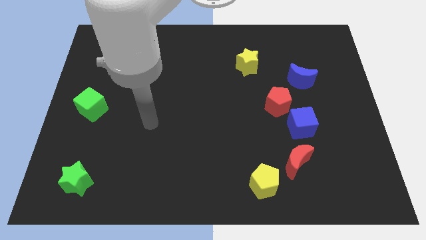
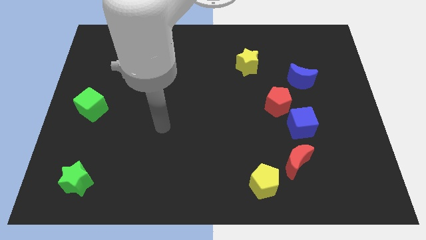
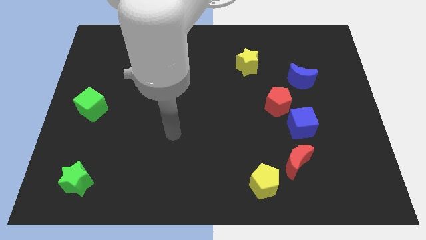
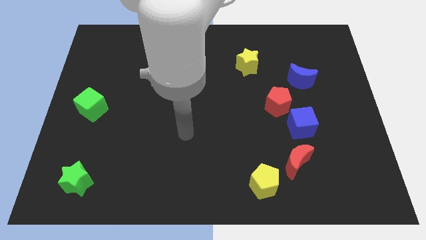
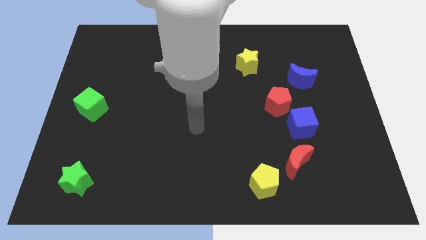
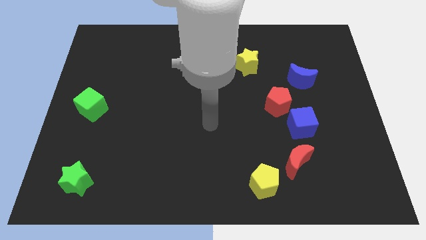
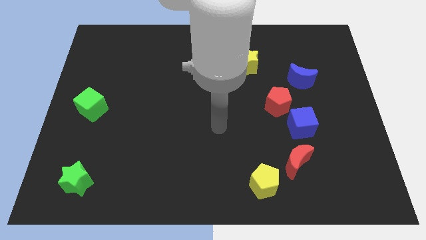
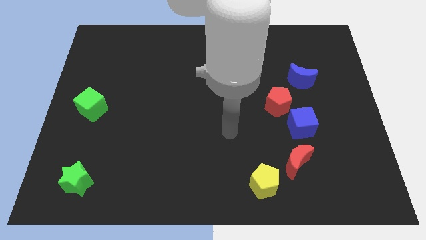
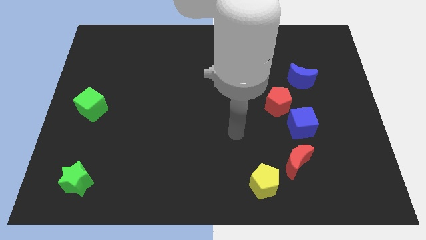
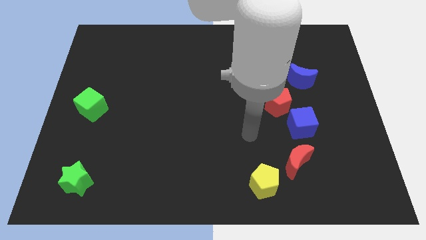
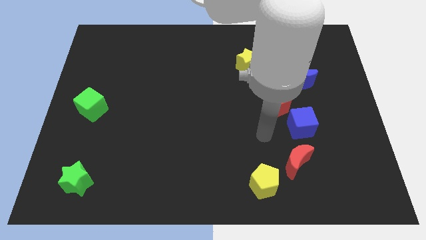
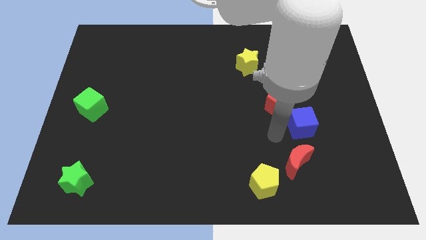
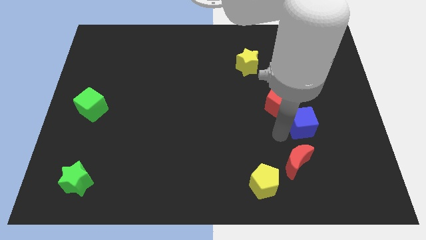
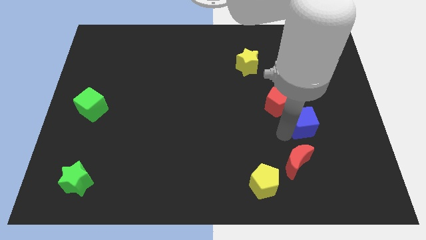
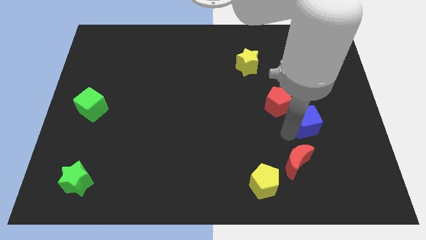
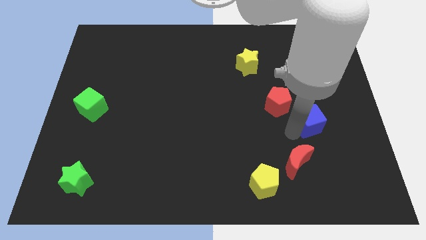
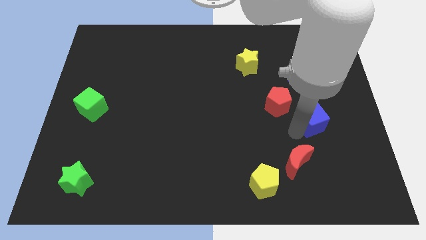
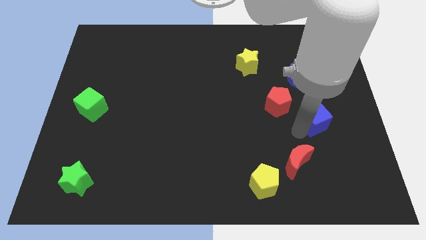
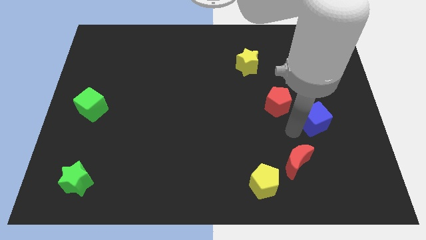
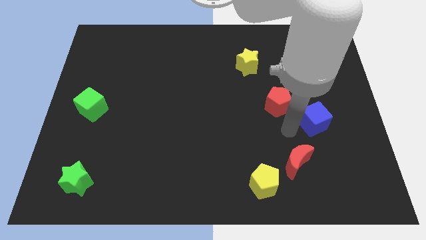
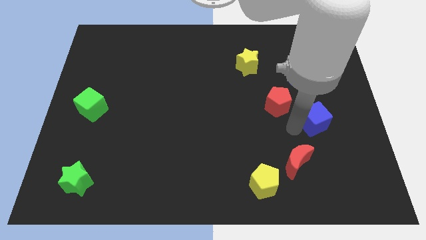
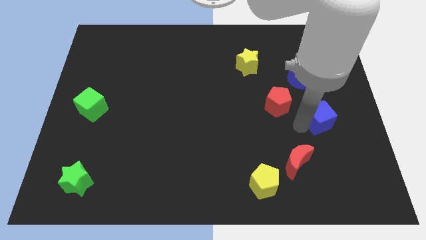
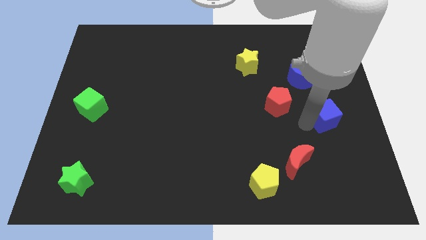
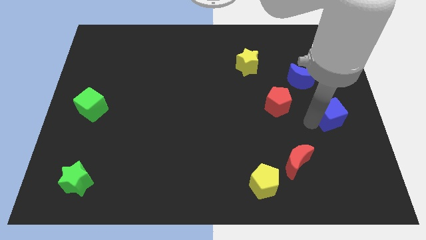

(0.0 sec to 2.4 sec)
move the blue cube away from the red pentagon and red moon

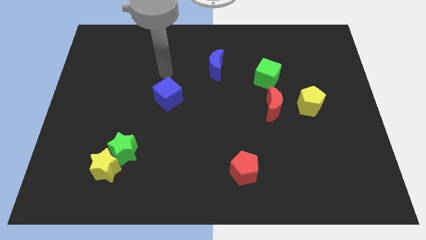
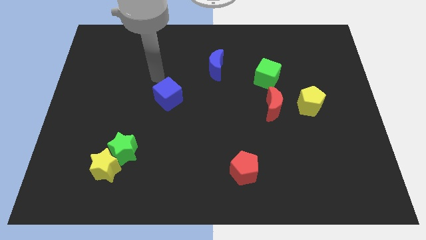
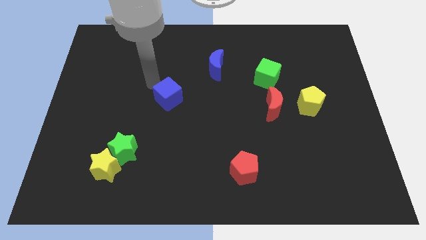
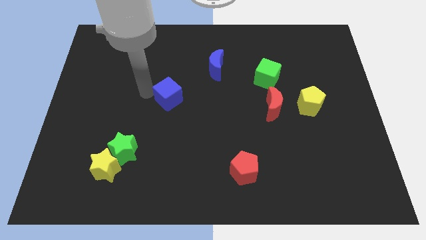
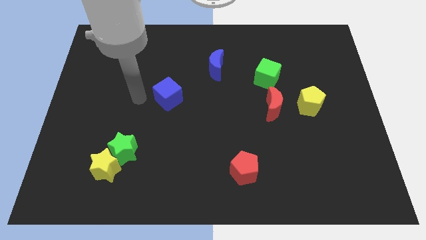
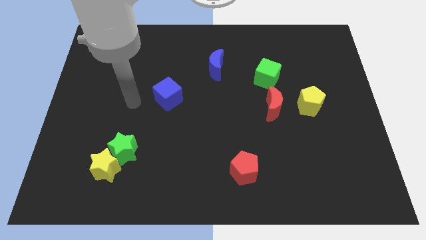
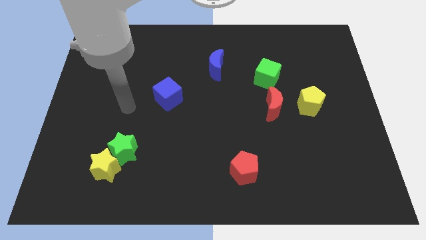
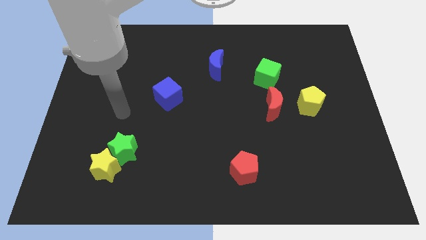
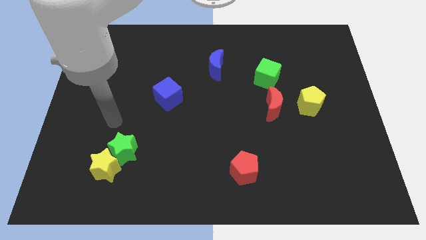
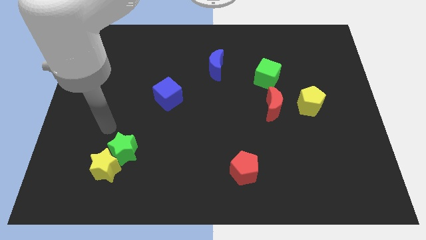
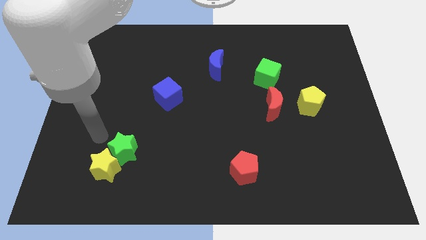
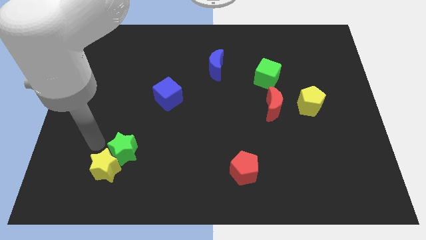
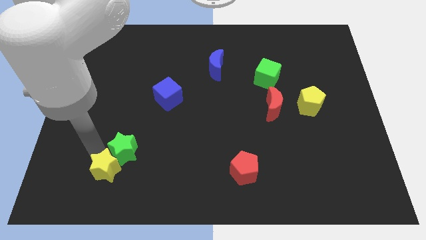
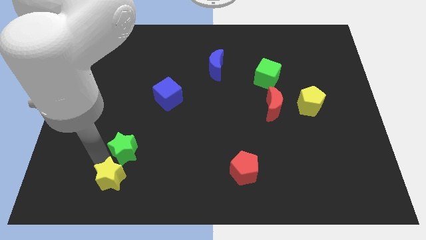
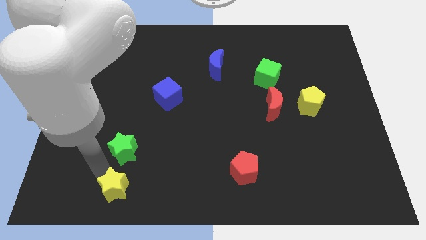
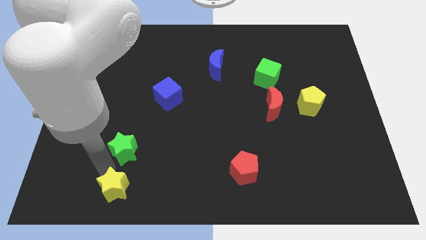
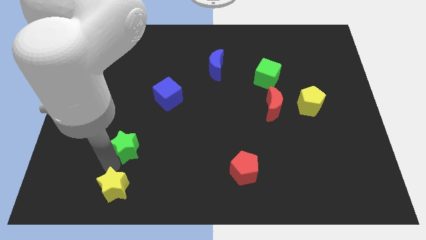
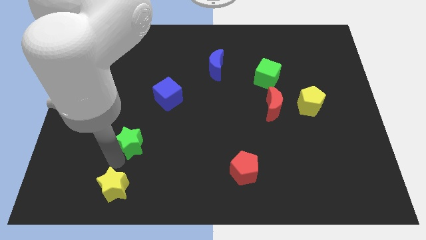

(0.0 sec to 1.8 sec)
move the green star away from the yellow star

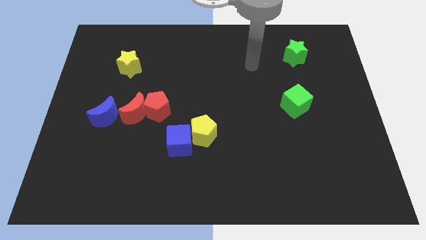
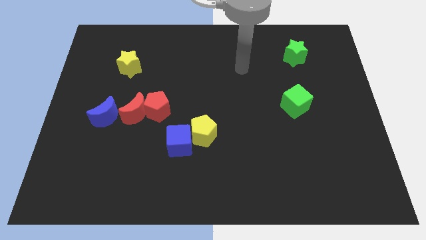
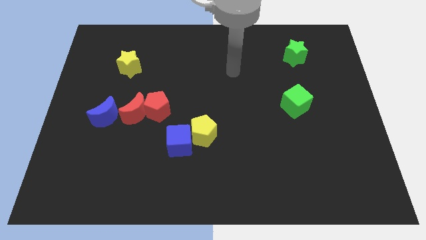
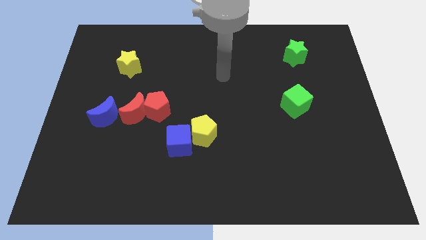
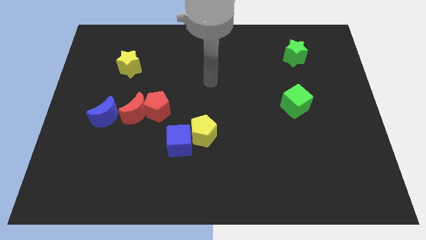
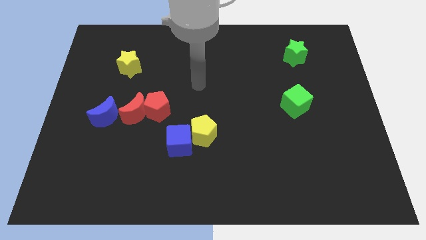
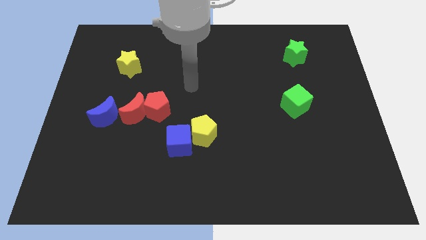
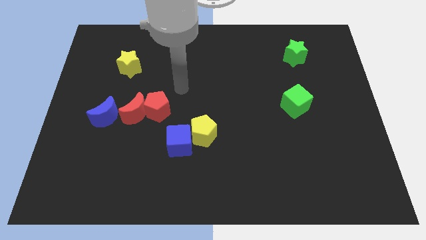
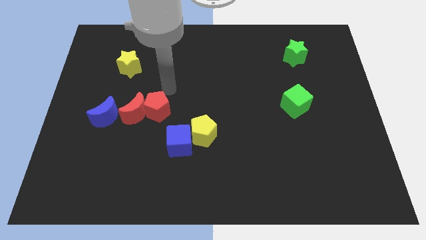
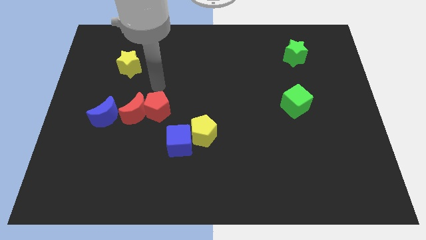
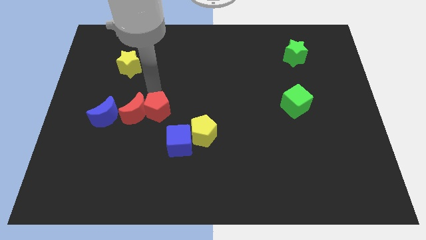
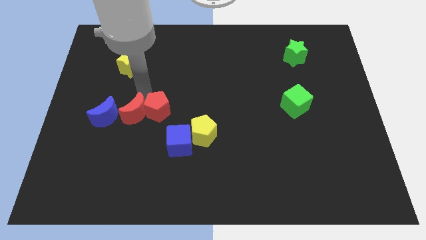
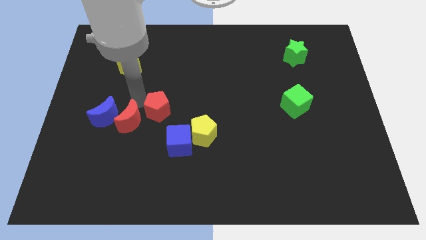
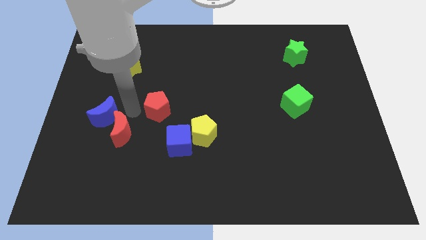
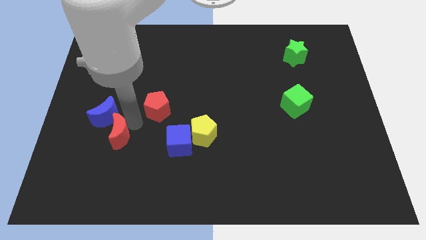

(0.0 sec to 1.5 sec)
pull the red pentagon apart from the red moon

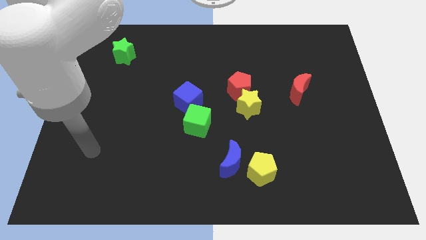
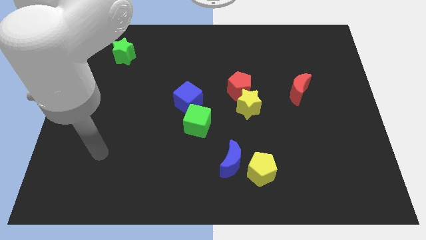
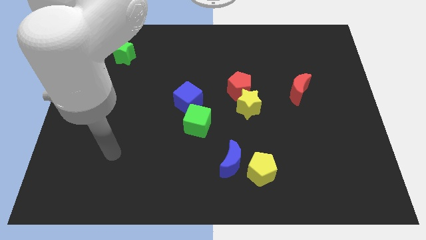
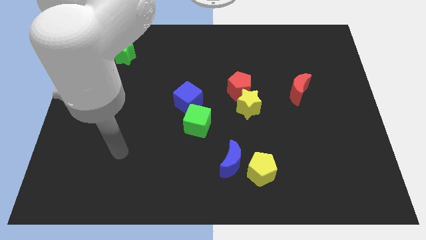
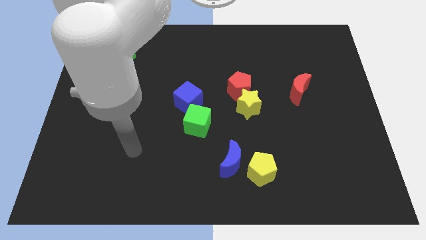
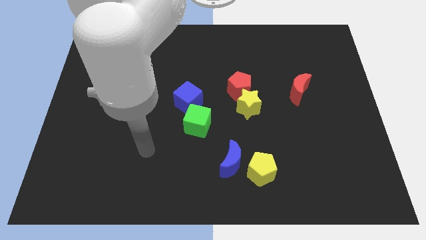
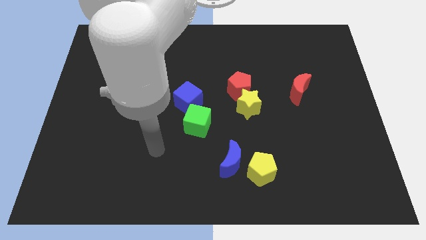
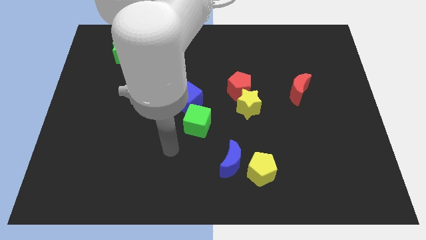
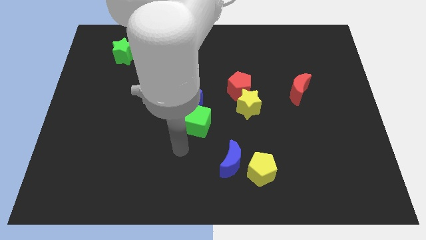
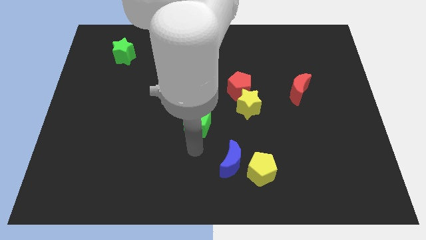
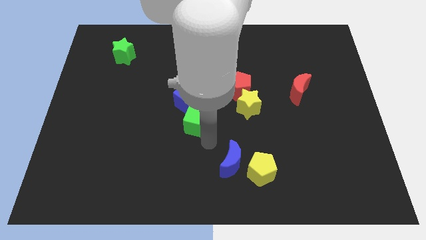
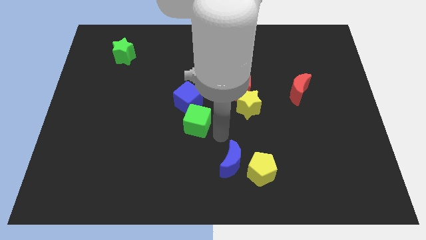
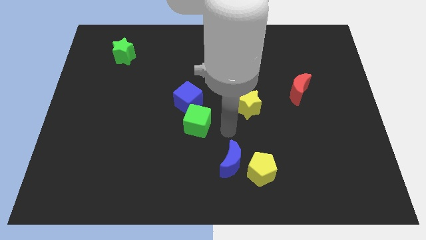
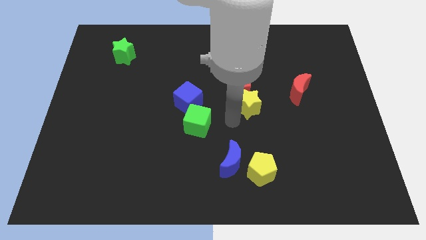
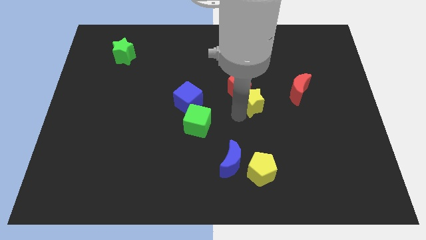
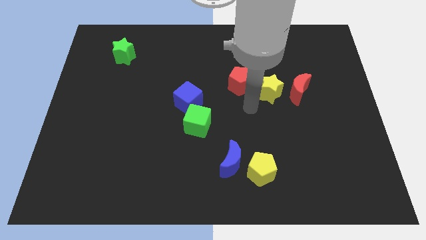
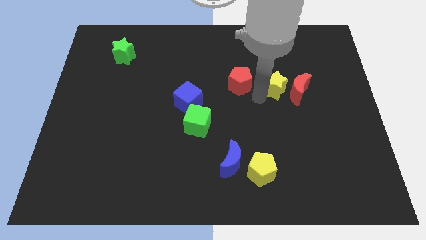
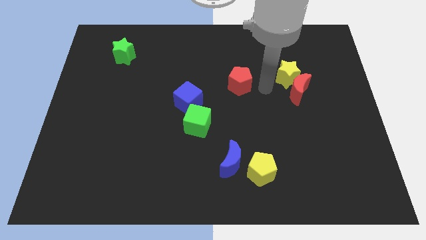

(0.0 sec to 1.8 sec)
pull the red pentagon apart from the yellow star

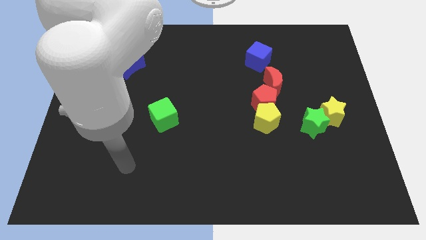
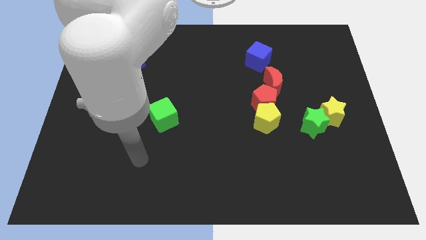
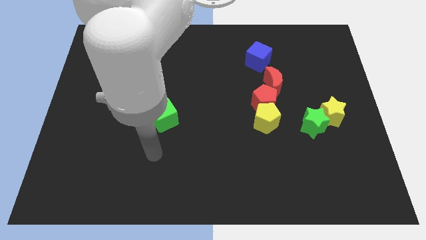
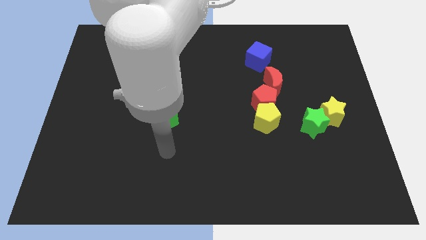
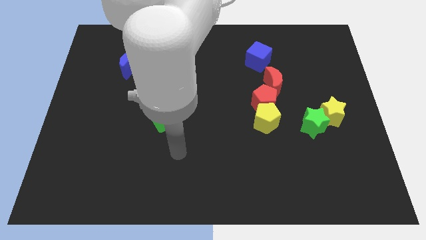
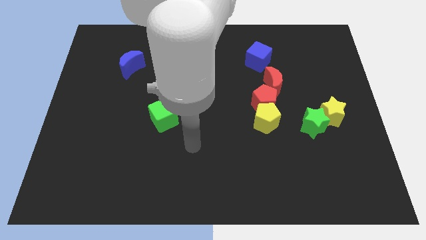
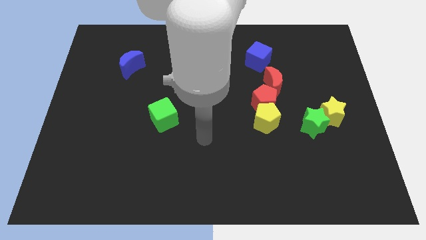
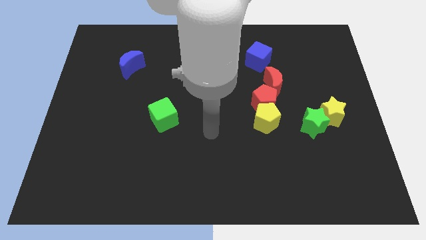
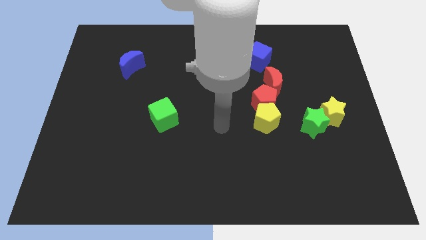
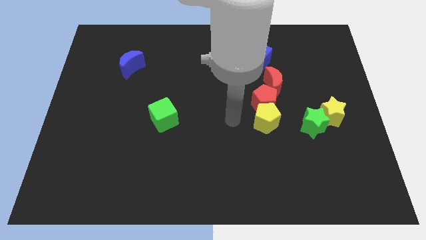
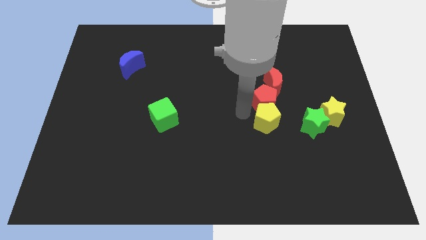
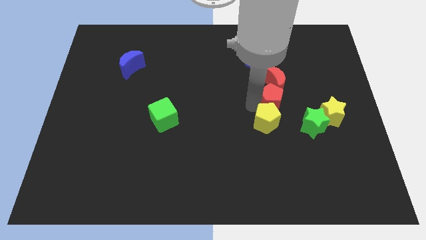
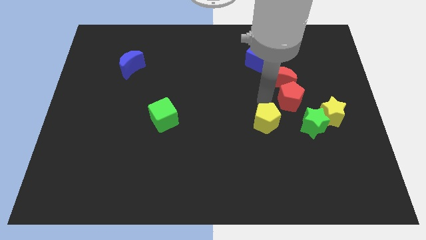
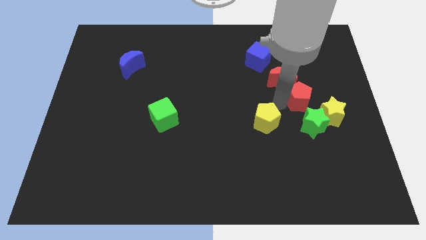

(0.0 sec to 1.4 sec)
pull the yellow pentagon apart from the red pentagon

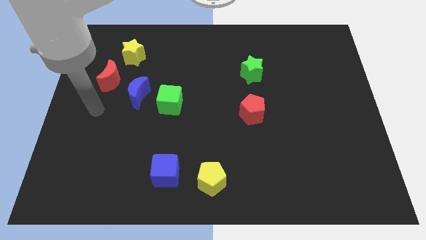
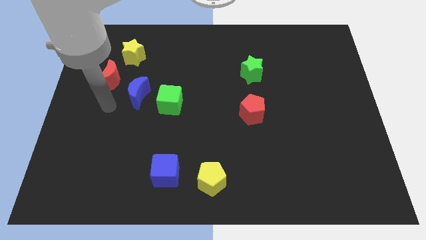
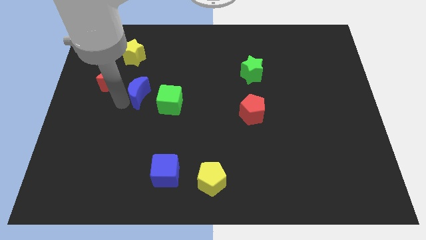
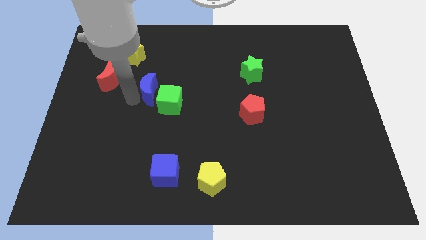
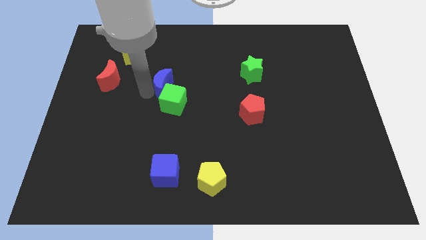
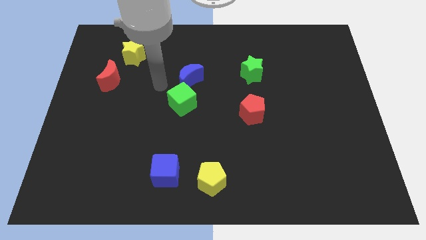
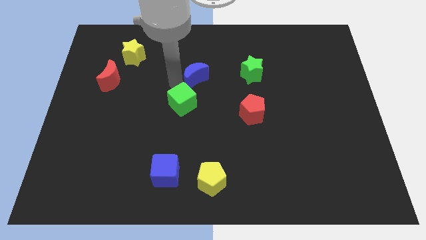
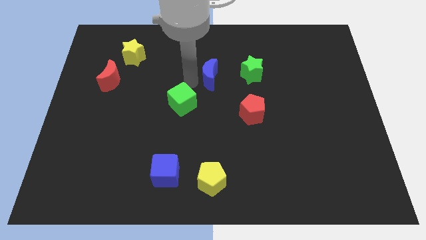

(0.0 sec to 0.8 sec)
separate the green cube from the blue moon
